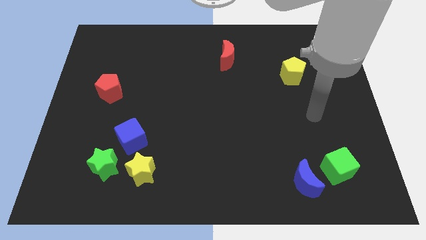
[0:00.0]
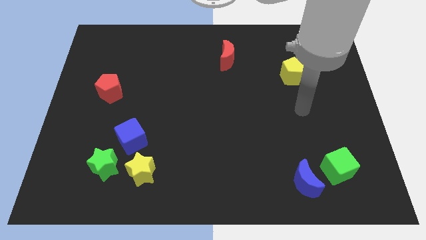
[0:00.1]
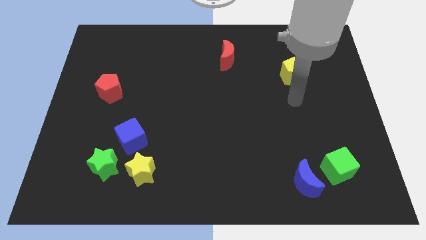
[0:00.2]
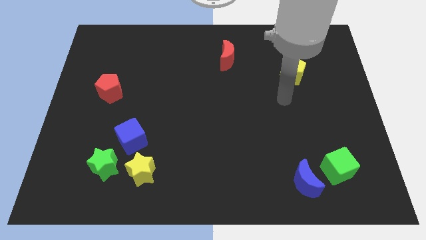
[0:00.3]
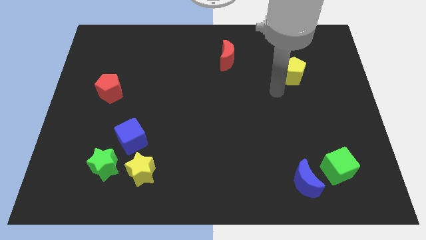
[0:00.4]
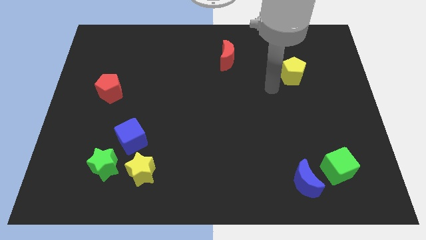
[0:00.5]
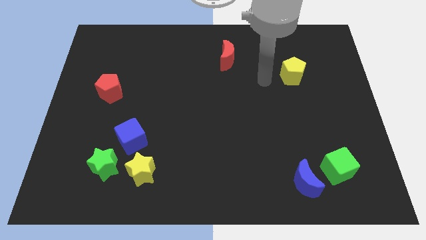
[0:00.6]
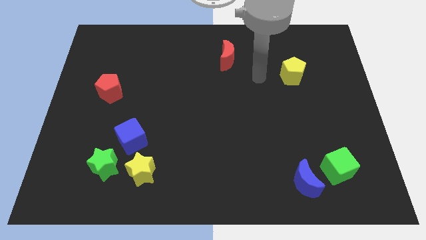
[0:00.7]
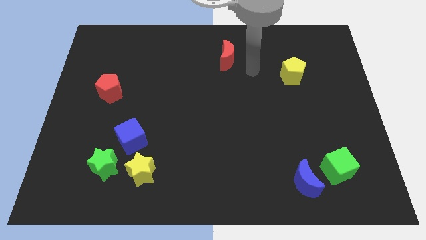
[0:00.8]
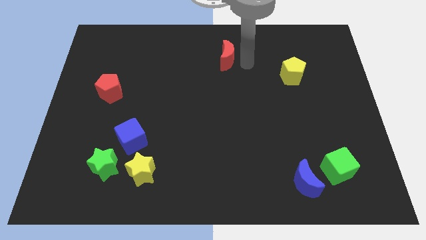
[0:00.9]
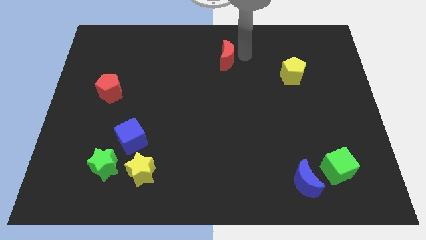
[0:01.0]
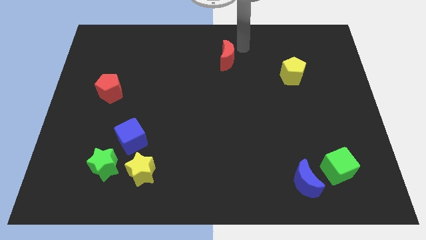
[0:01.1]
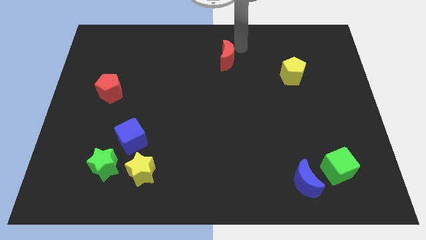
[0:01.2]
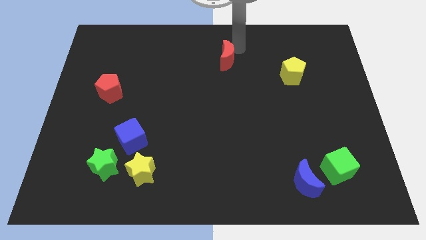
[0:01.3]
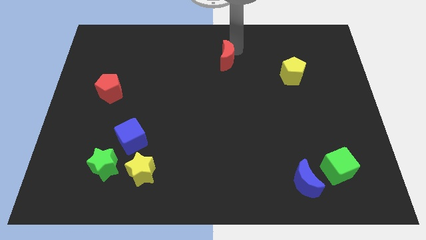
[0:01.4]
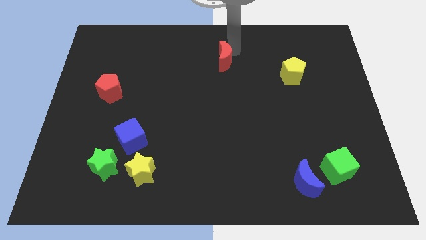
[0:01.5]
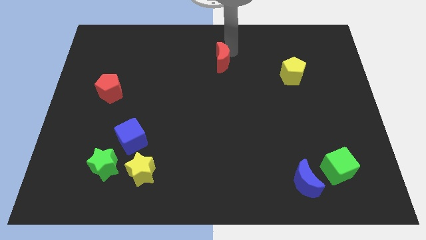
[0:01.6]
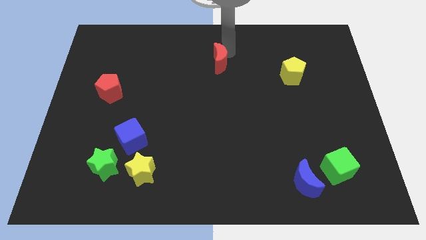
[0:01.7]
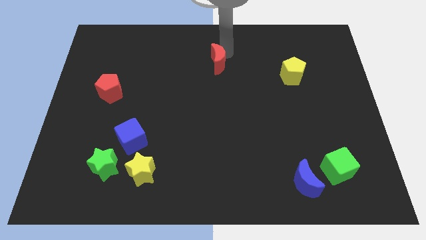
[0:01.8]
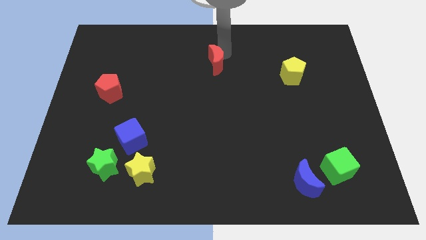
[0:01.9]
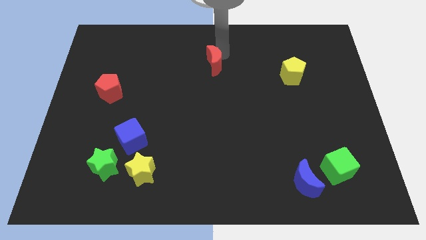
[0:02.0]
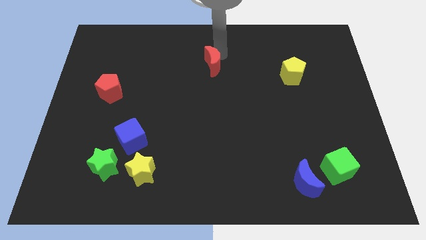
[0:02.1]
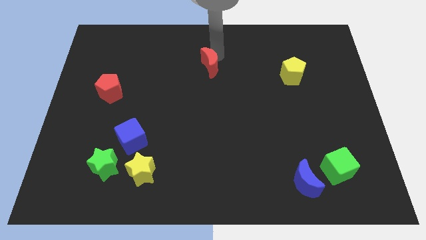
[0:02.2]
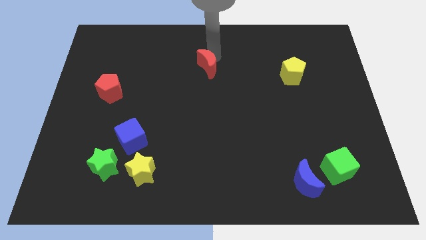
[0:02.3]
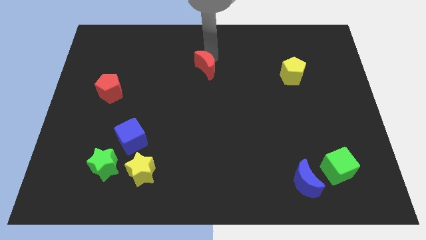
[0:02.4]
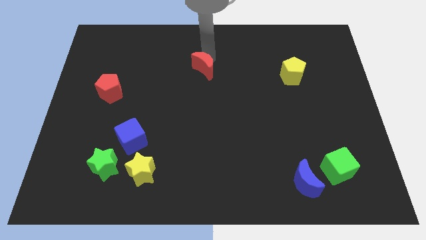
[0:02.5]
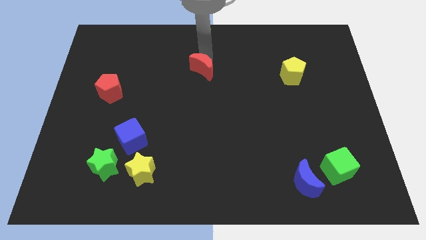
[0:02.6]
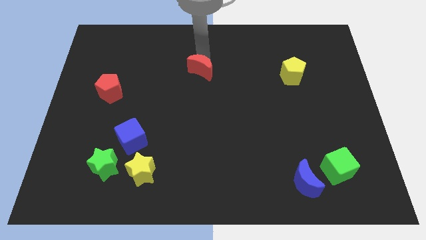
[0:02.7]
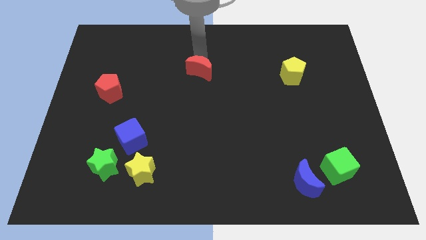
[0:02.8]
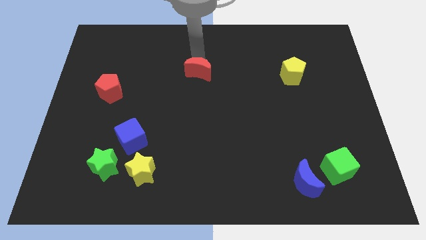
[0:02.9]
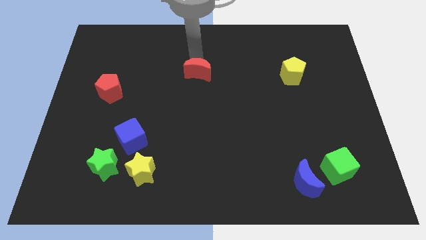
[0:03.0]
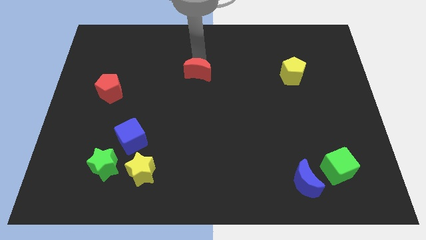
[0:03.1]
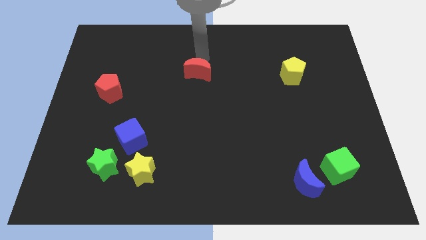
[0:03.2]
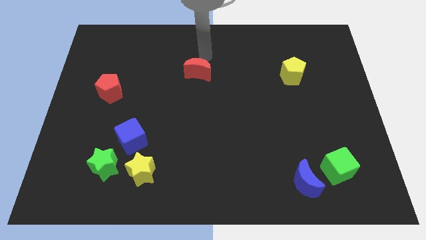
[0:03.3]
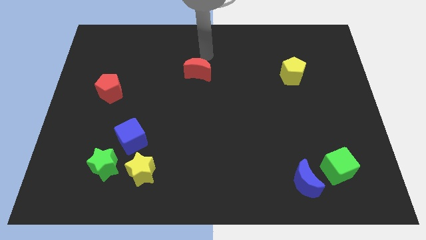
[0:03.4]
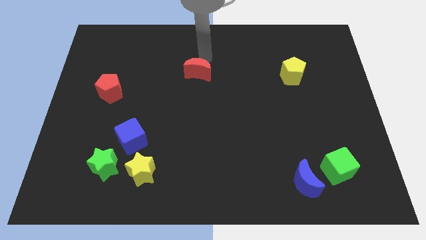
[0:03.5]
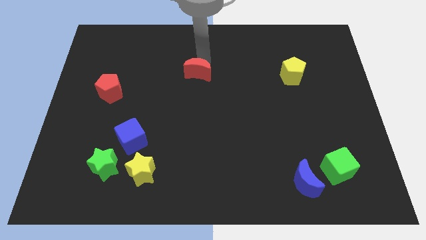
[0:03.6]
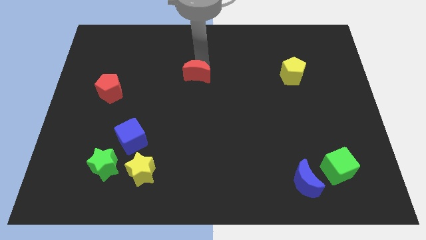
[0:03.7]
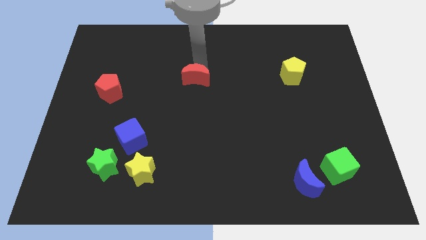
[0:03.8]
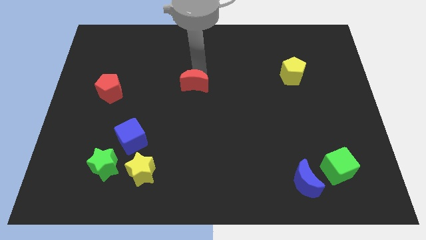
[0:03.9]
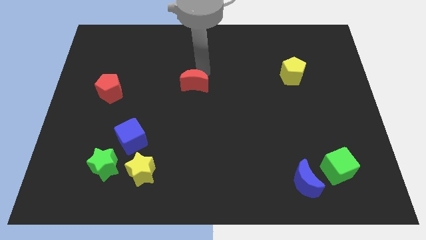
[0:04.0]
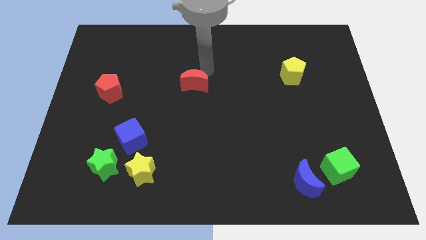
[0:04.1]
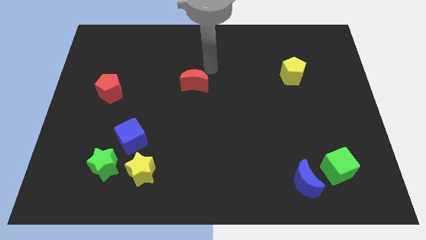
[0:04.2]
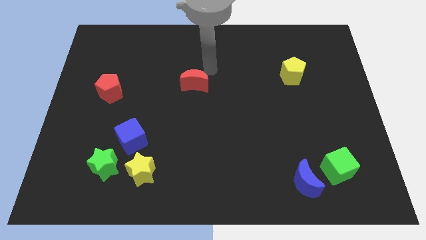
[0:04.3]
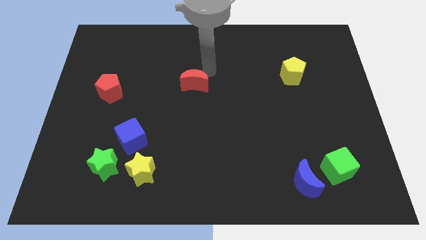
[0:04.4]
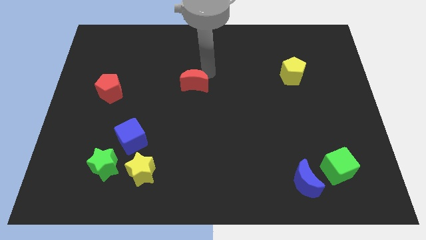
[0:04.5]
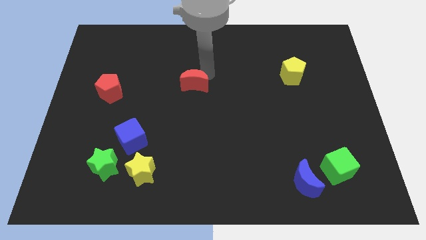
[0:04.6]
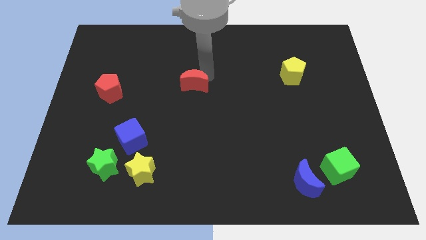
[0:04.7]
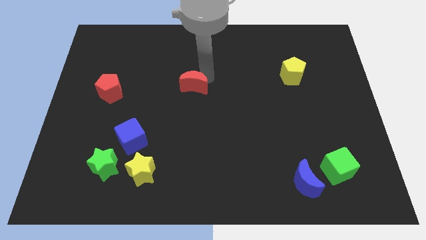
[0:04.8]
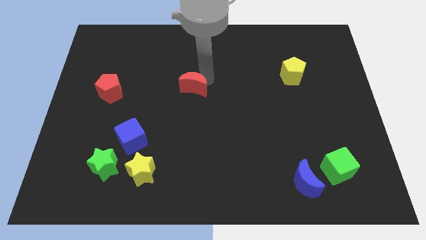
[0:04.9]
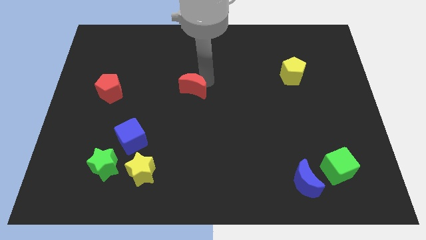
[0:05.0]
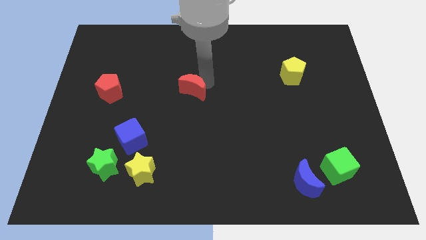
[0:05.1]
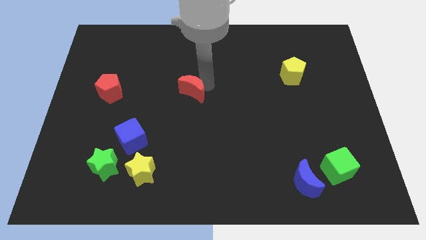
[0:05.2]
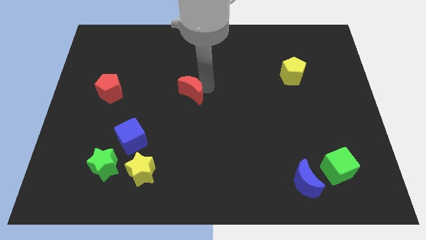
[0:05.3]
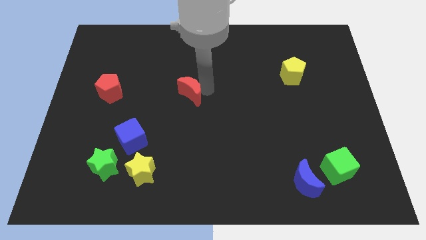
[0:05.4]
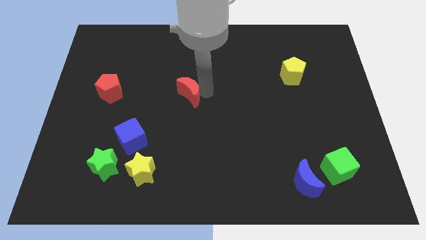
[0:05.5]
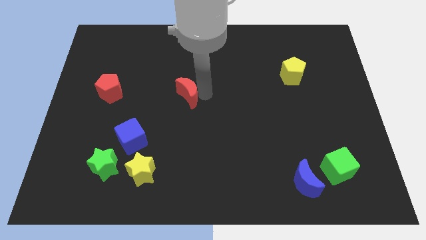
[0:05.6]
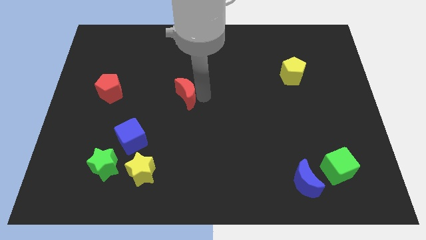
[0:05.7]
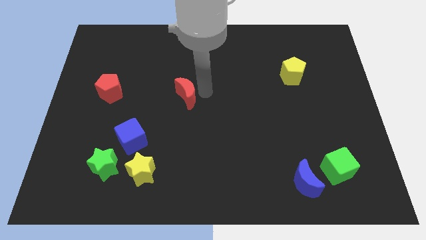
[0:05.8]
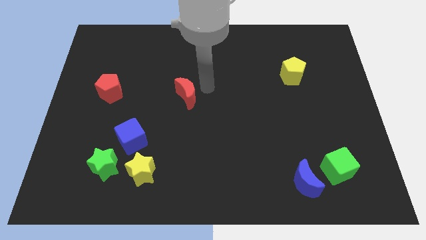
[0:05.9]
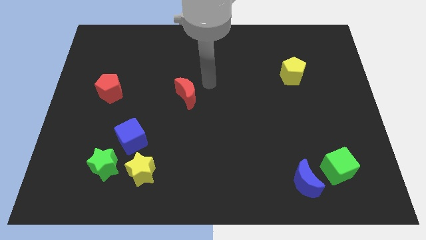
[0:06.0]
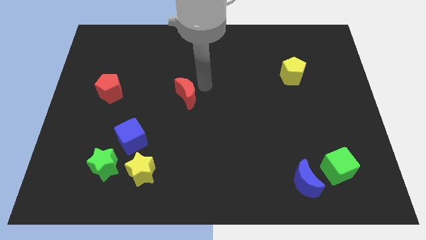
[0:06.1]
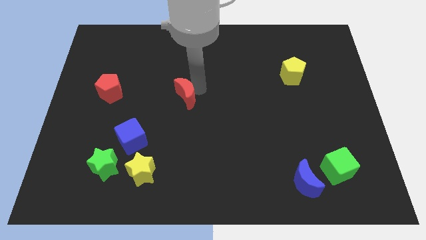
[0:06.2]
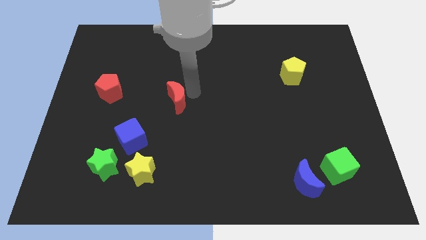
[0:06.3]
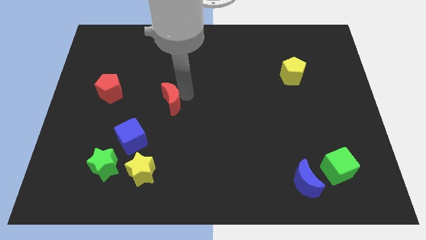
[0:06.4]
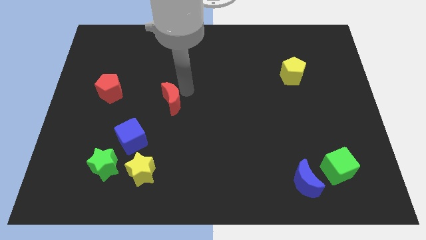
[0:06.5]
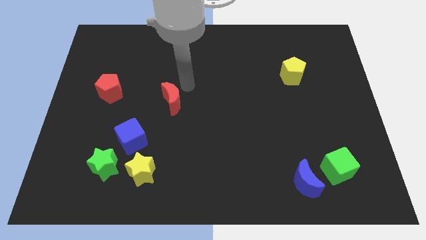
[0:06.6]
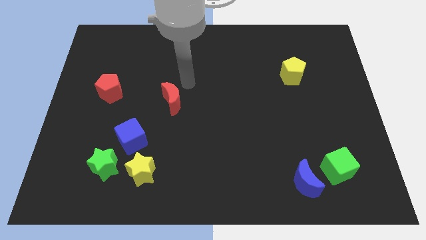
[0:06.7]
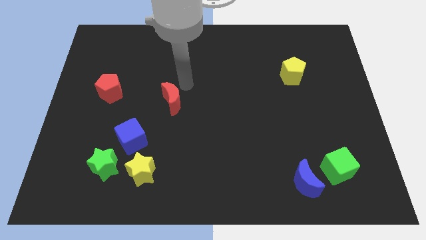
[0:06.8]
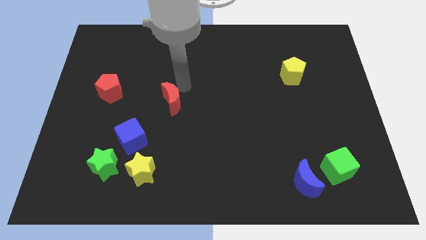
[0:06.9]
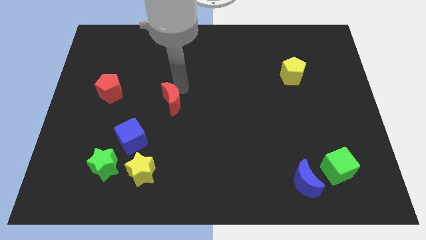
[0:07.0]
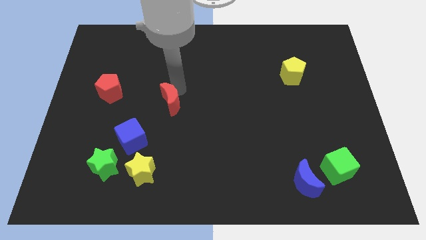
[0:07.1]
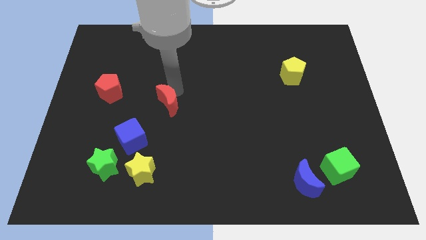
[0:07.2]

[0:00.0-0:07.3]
slide the red moon to the top right side of the blue cube
